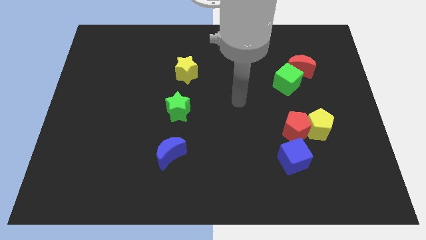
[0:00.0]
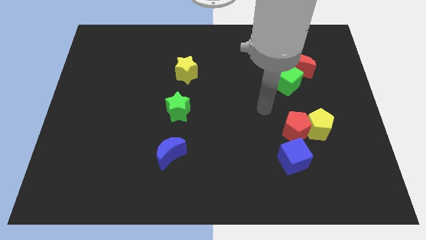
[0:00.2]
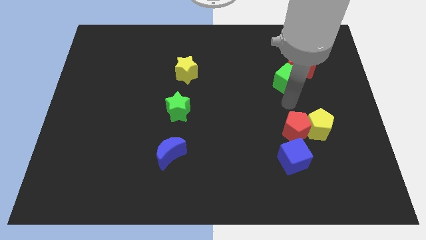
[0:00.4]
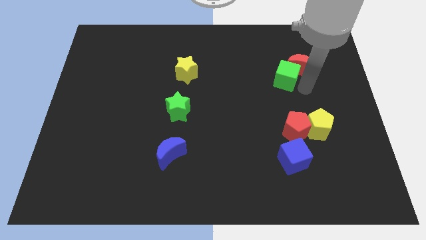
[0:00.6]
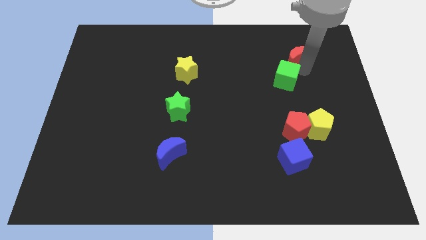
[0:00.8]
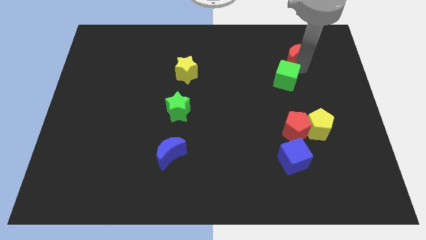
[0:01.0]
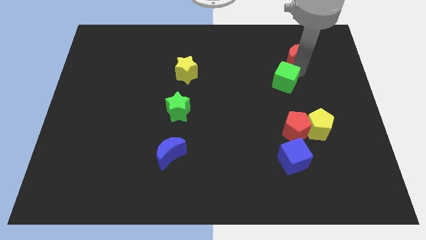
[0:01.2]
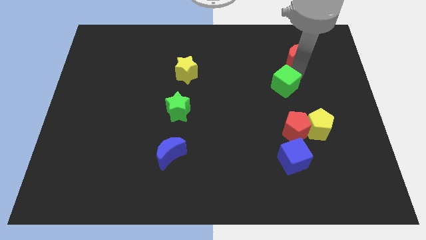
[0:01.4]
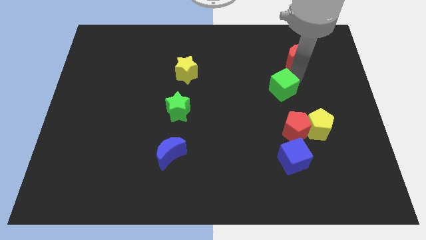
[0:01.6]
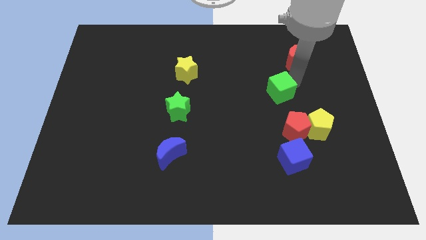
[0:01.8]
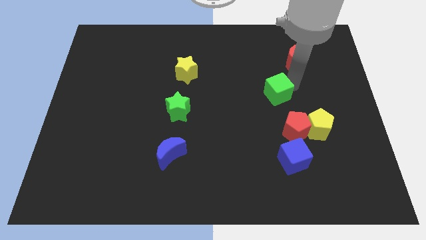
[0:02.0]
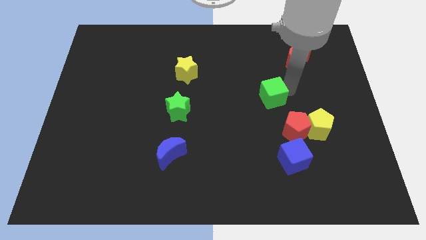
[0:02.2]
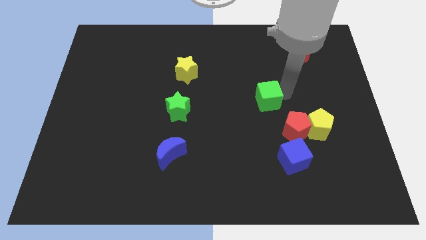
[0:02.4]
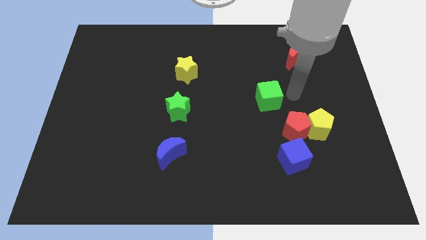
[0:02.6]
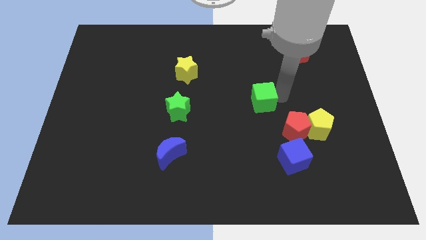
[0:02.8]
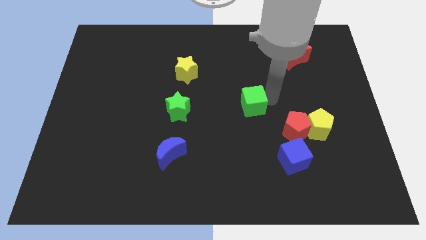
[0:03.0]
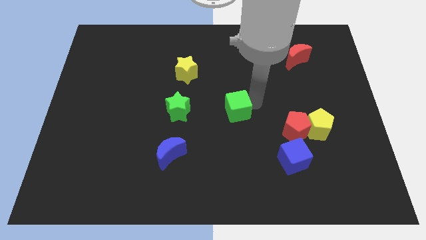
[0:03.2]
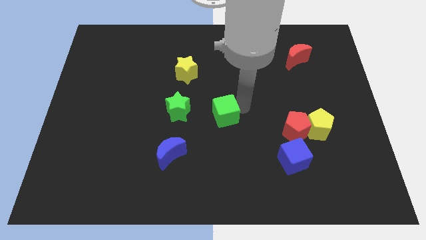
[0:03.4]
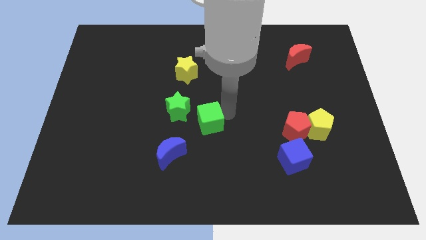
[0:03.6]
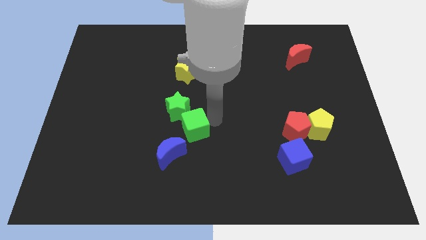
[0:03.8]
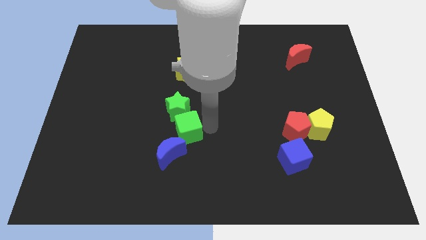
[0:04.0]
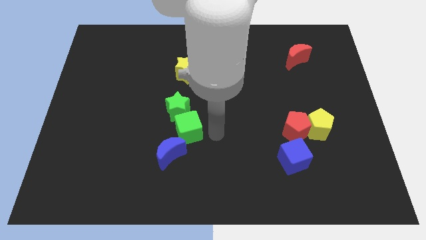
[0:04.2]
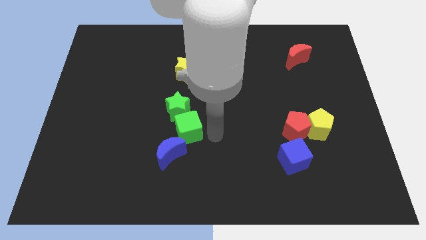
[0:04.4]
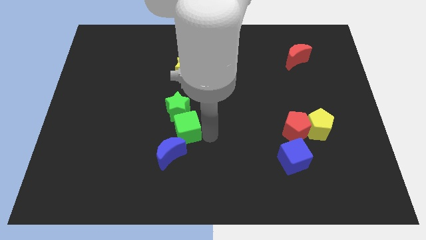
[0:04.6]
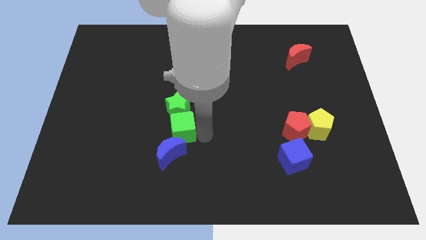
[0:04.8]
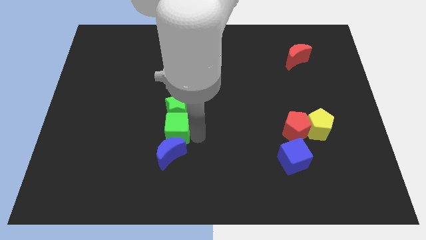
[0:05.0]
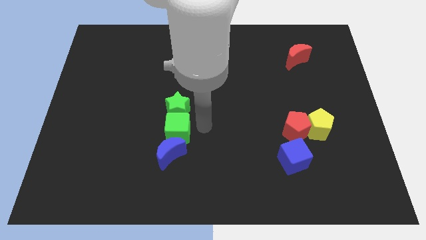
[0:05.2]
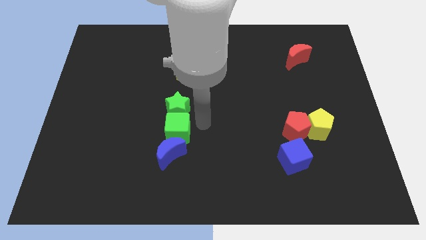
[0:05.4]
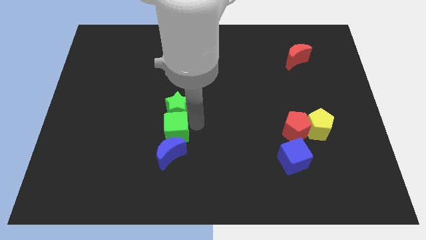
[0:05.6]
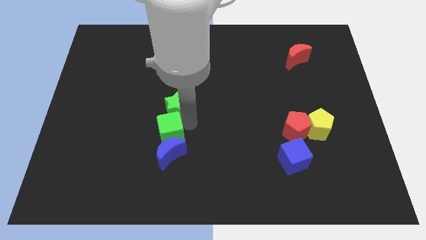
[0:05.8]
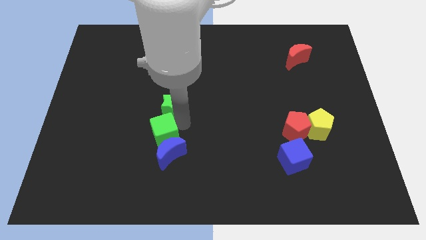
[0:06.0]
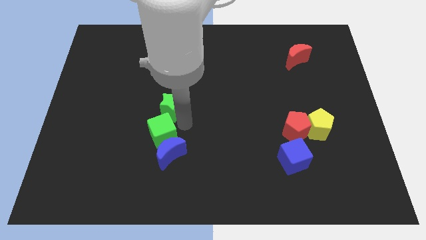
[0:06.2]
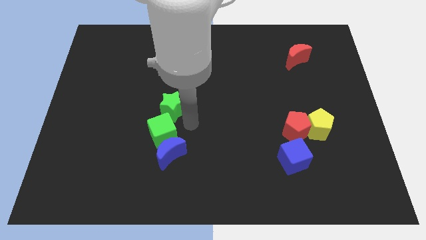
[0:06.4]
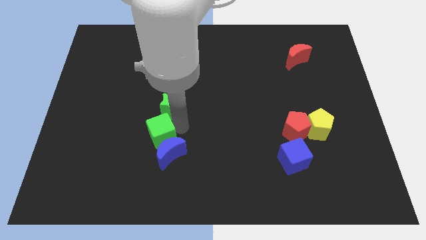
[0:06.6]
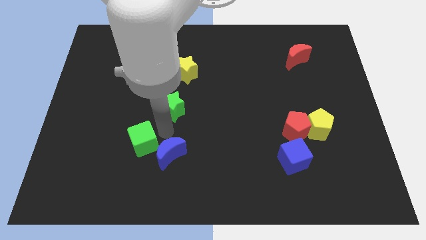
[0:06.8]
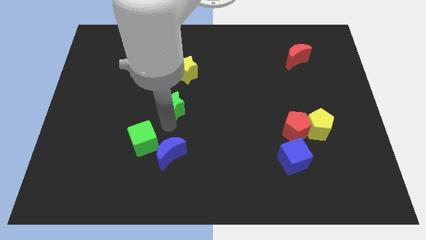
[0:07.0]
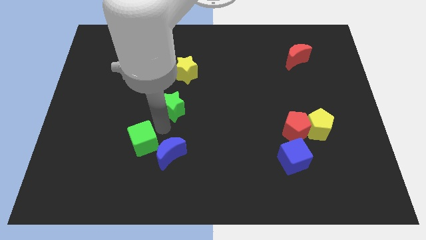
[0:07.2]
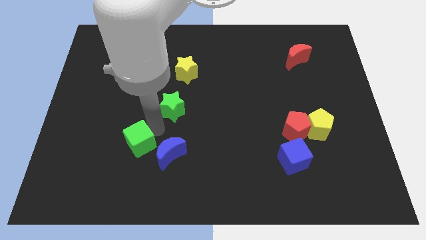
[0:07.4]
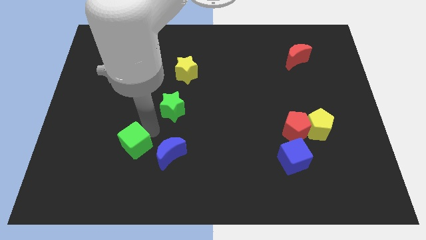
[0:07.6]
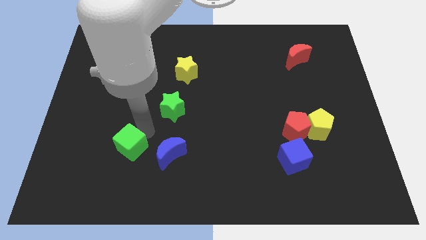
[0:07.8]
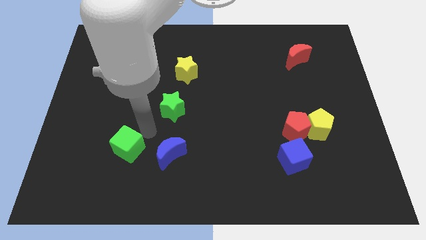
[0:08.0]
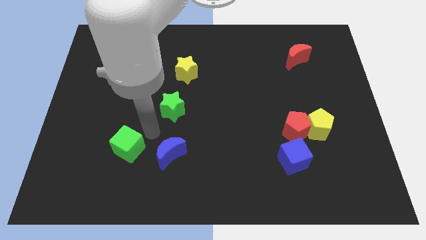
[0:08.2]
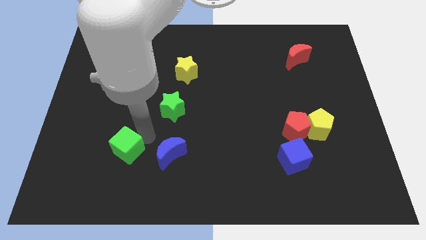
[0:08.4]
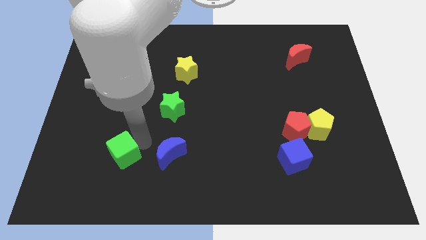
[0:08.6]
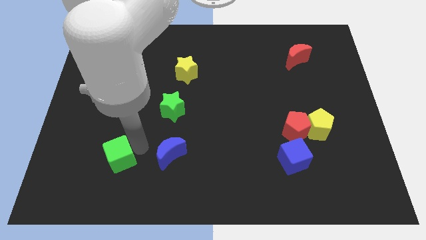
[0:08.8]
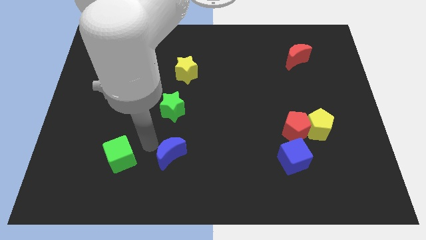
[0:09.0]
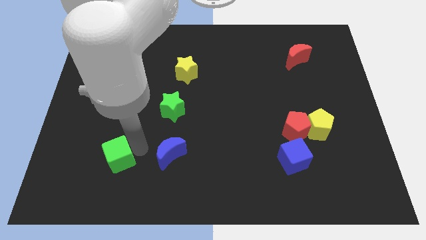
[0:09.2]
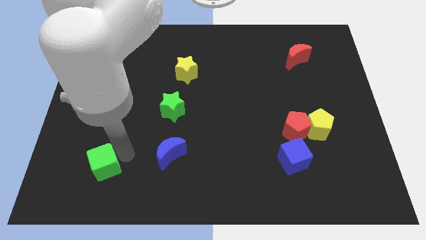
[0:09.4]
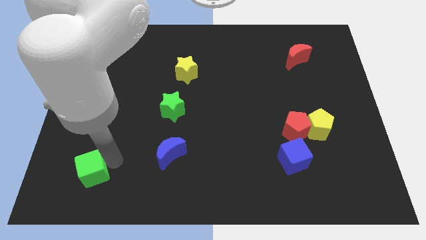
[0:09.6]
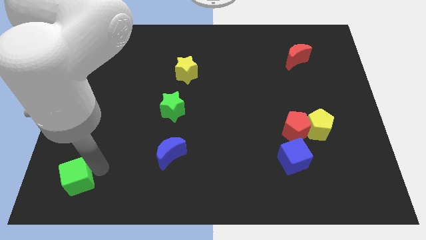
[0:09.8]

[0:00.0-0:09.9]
push the green cube to the bottom left of the board

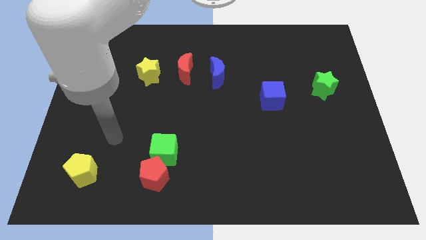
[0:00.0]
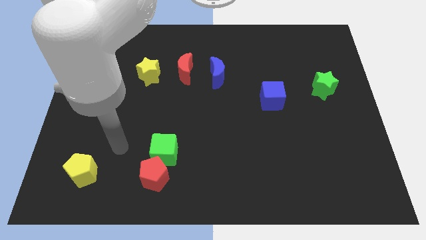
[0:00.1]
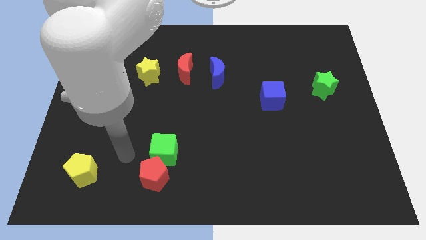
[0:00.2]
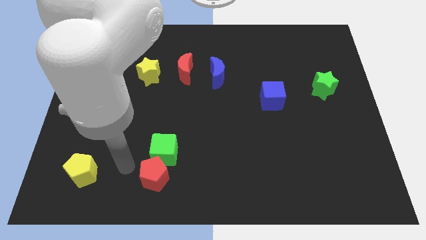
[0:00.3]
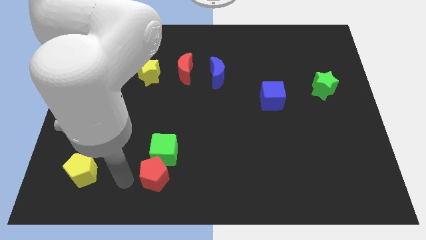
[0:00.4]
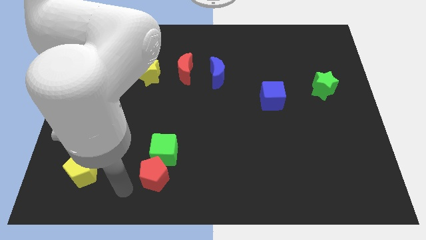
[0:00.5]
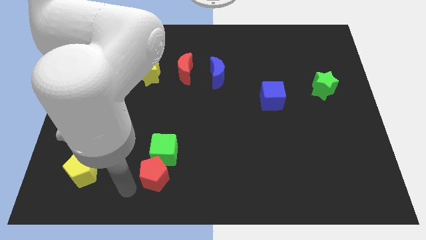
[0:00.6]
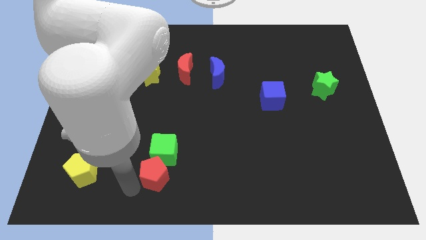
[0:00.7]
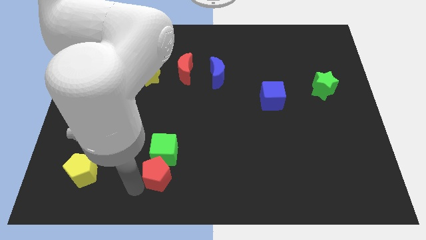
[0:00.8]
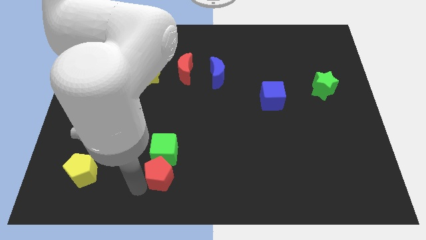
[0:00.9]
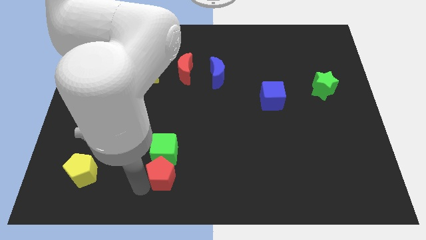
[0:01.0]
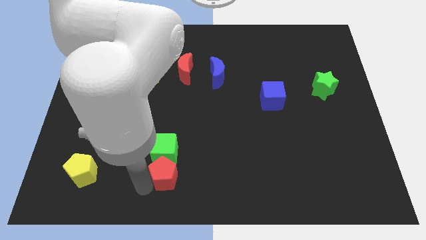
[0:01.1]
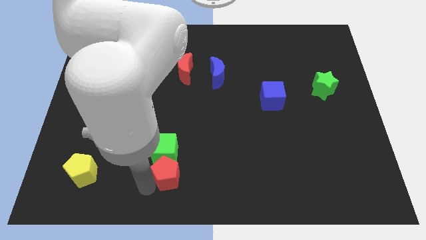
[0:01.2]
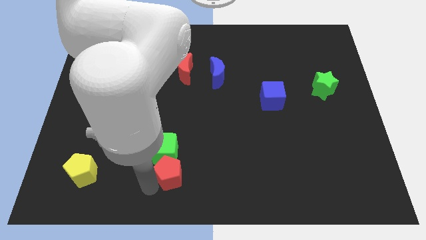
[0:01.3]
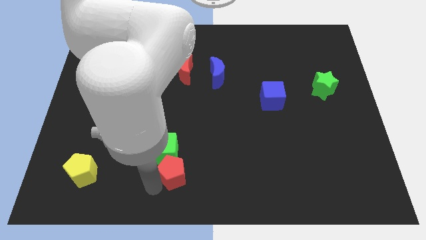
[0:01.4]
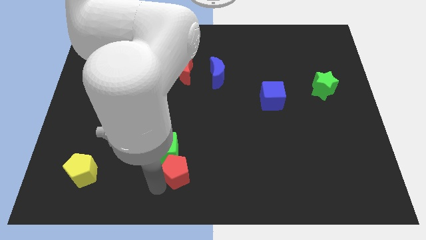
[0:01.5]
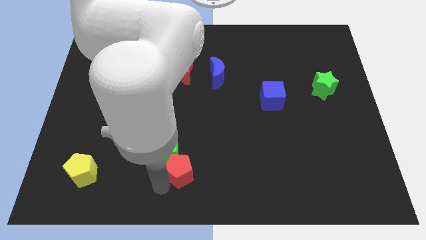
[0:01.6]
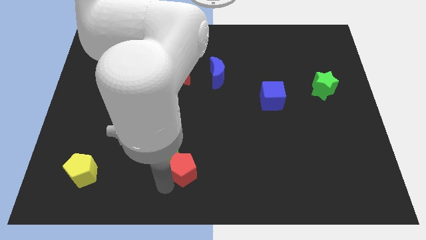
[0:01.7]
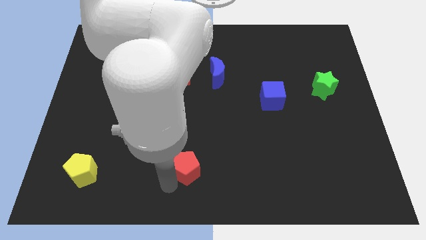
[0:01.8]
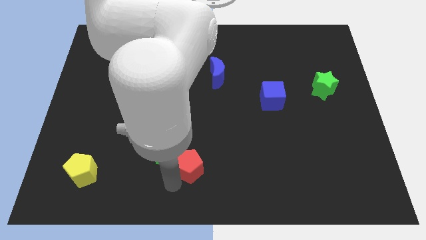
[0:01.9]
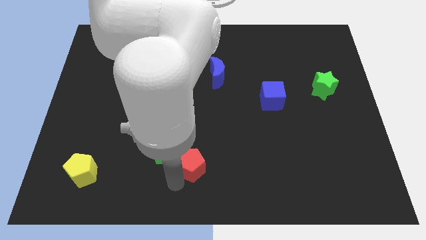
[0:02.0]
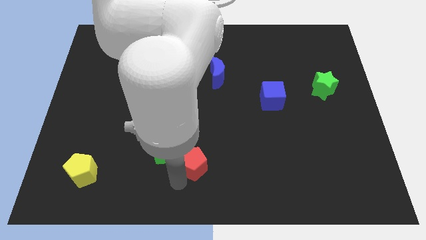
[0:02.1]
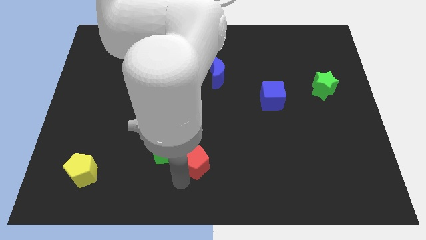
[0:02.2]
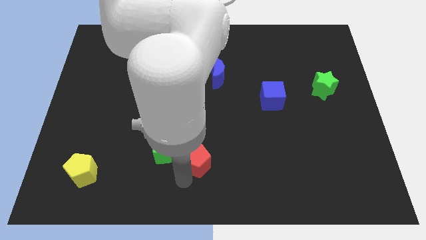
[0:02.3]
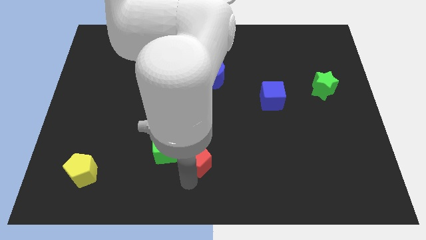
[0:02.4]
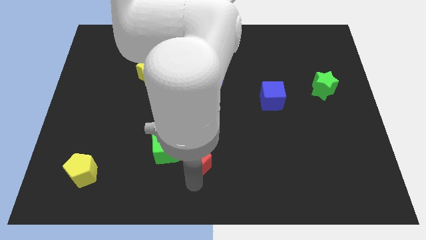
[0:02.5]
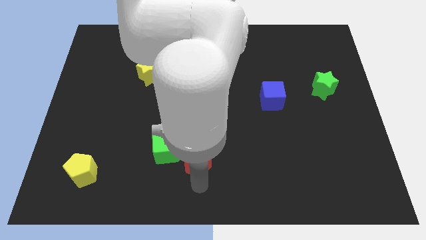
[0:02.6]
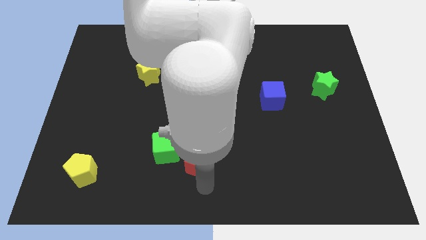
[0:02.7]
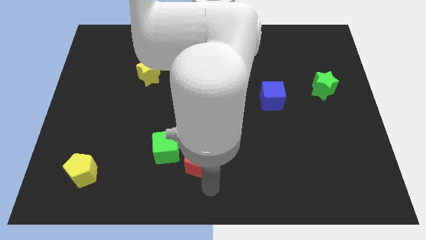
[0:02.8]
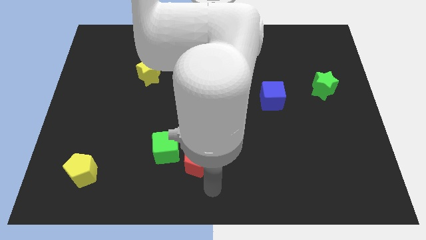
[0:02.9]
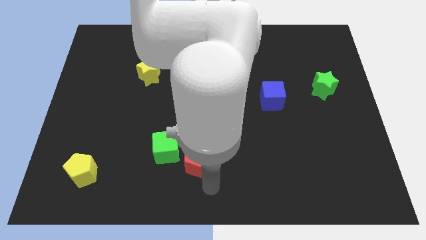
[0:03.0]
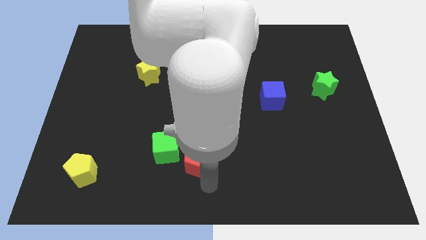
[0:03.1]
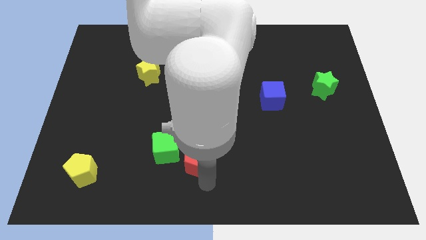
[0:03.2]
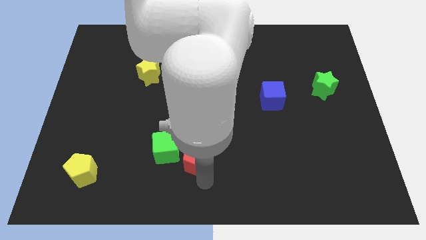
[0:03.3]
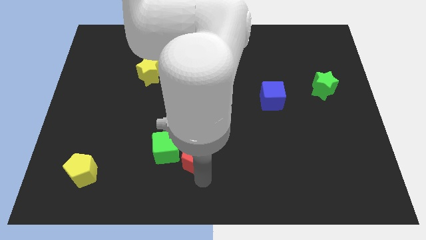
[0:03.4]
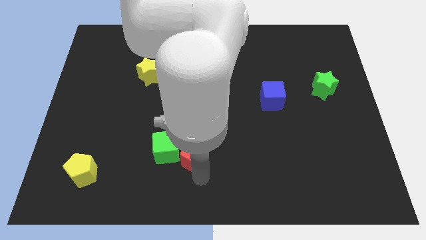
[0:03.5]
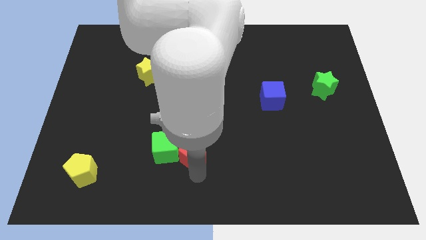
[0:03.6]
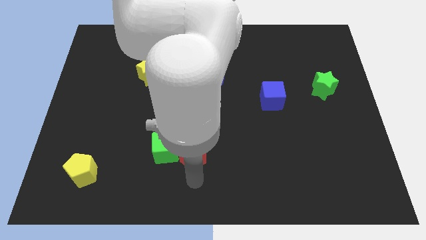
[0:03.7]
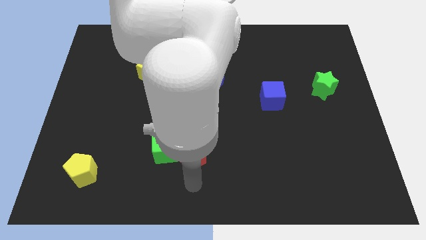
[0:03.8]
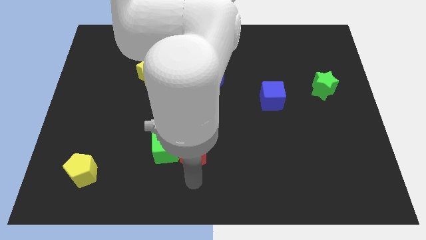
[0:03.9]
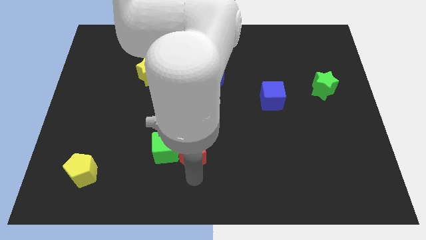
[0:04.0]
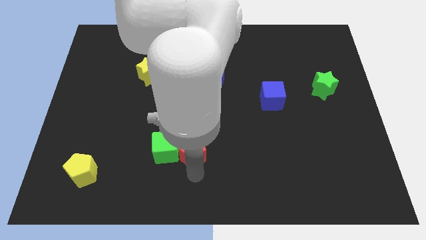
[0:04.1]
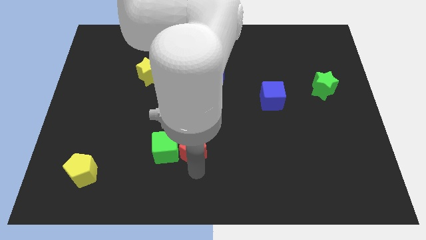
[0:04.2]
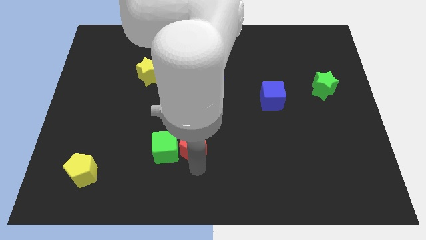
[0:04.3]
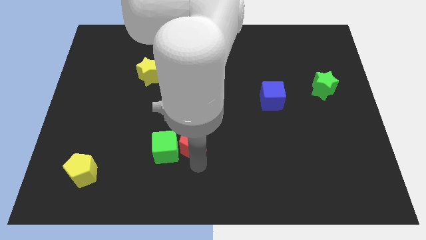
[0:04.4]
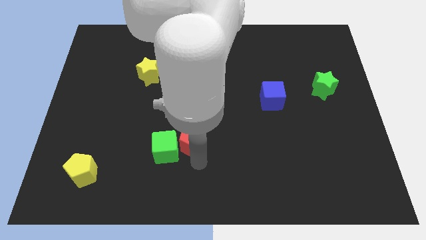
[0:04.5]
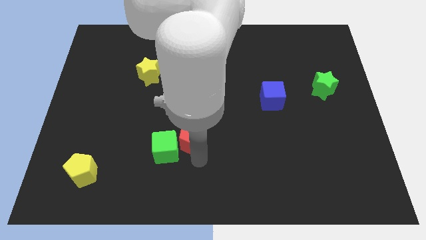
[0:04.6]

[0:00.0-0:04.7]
move the red pentagon to the middle
